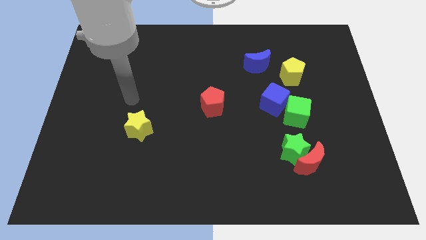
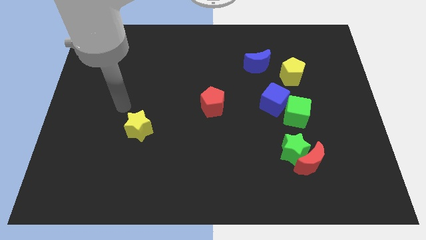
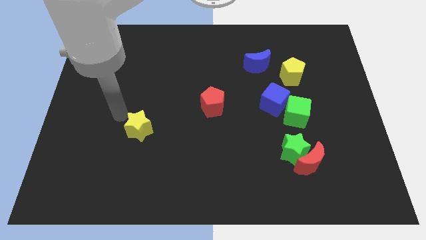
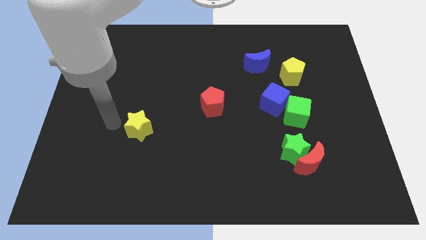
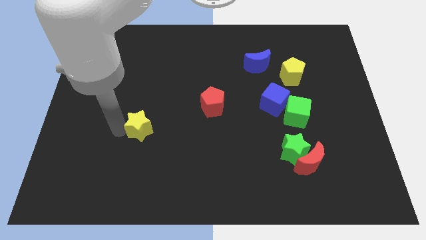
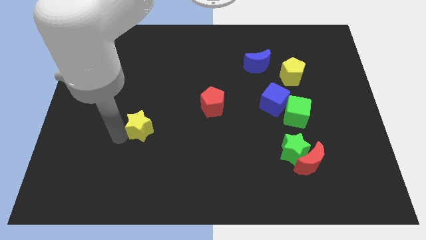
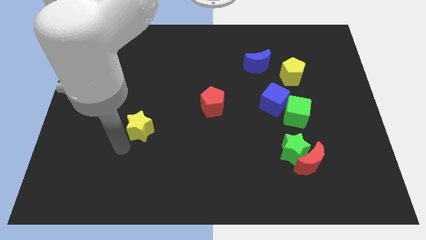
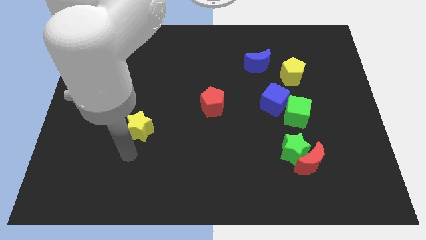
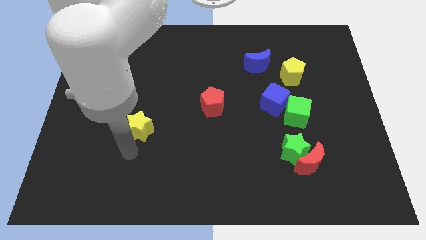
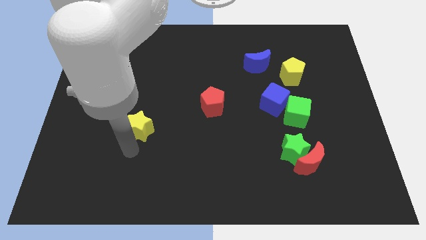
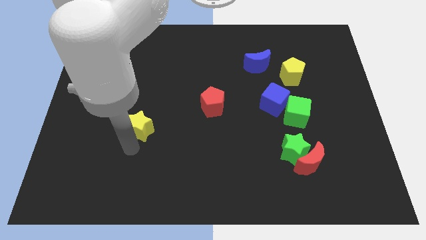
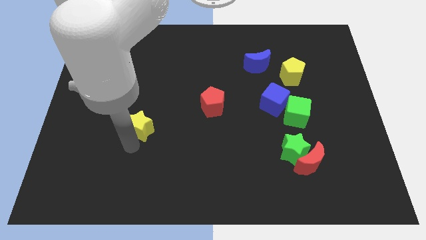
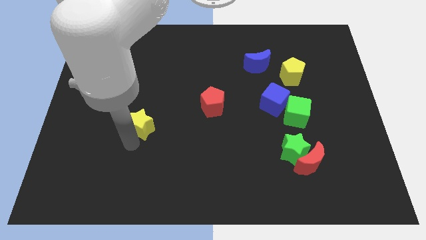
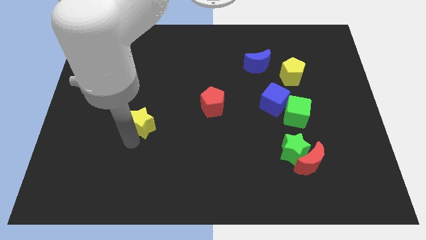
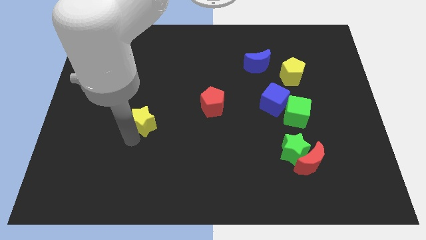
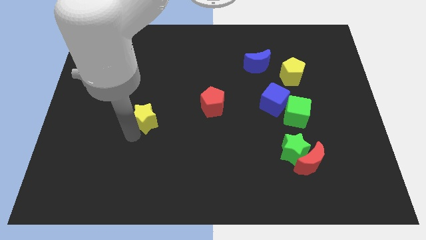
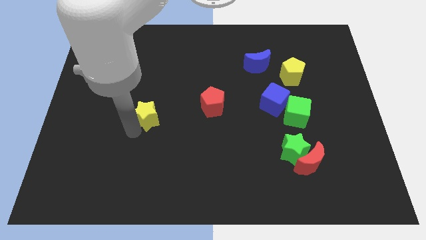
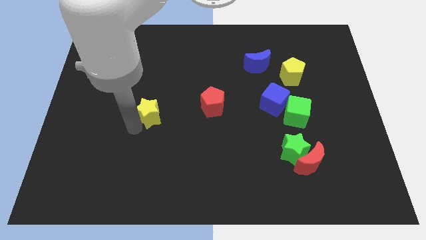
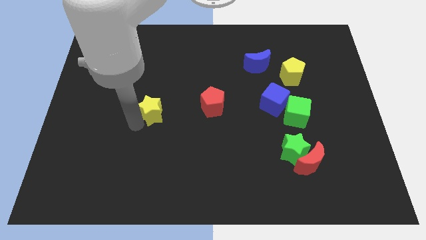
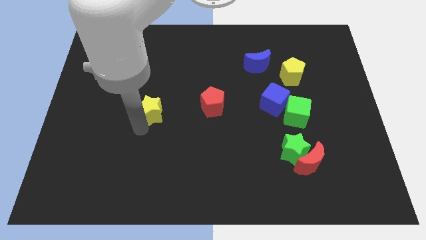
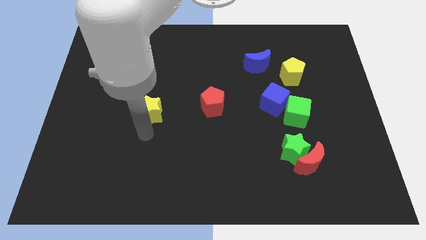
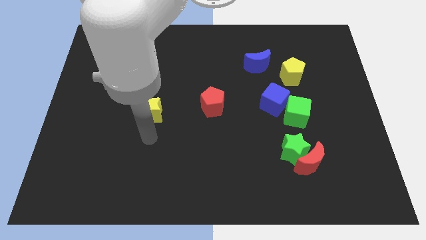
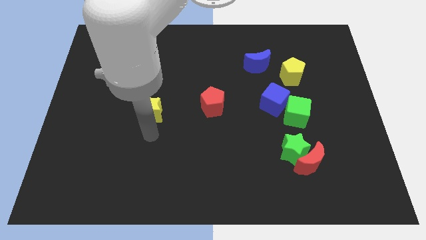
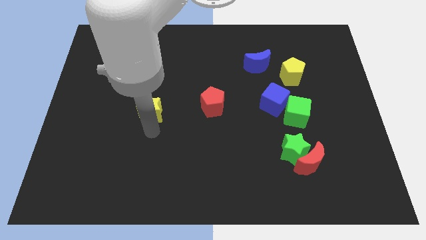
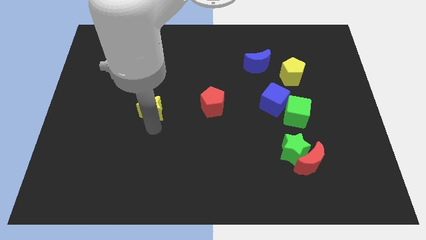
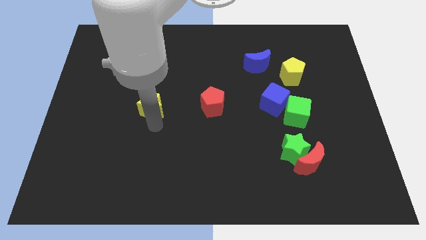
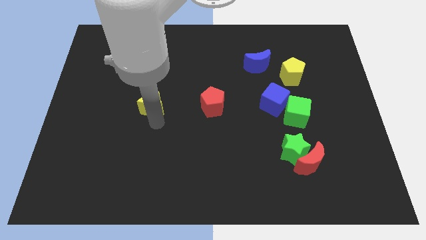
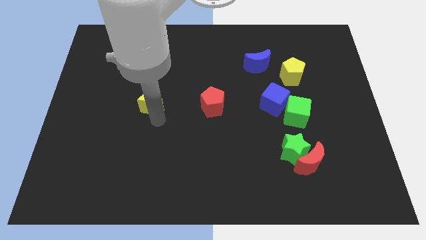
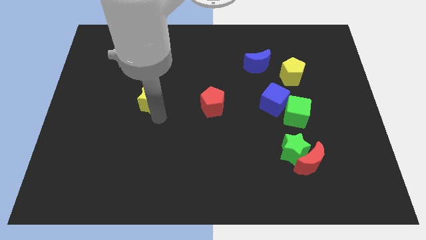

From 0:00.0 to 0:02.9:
move the yellow star a bit upwards

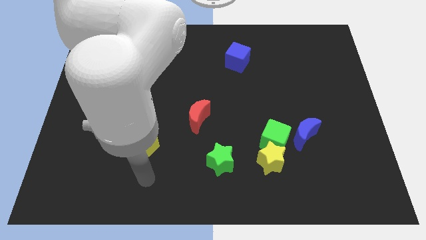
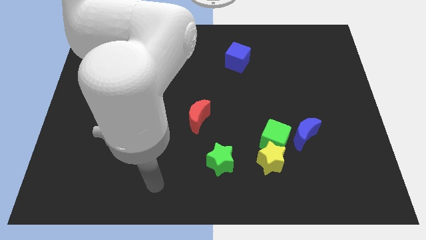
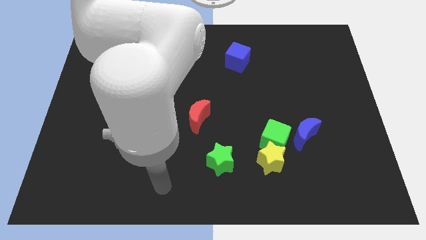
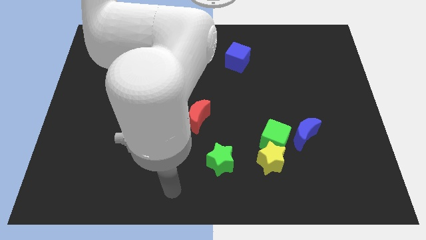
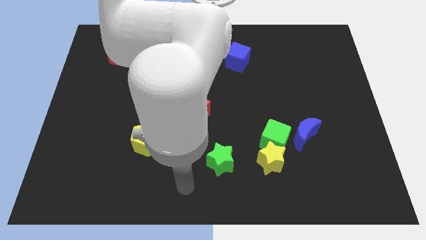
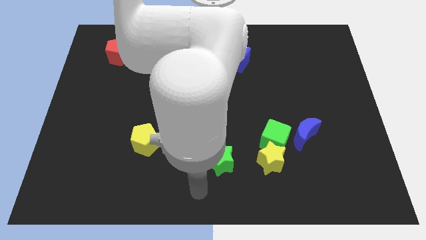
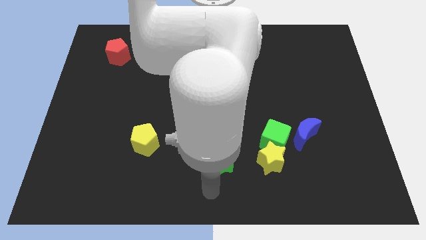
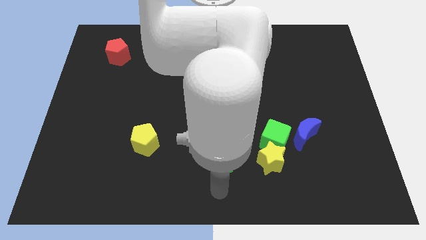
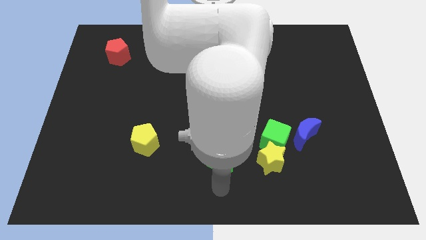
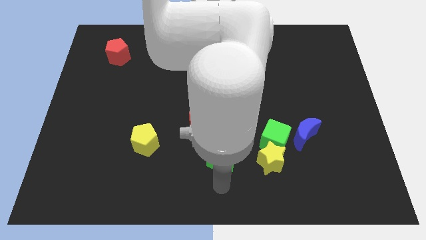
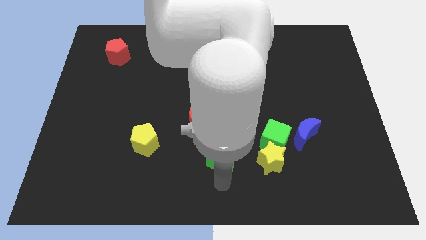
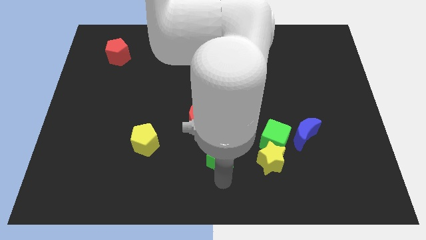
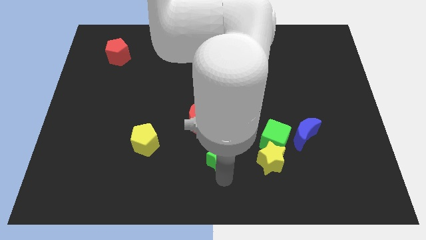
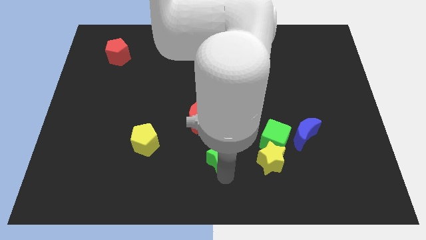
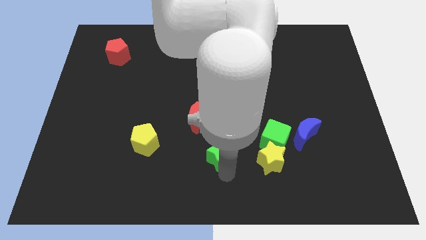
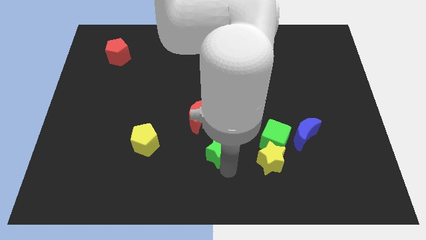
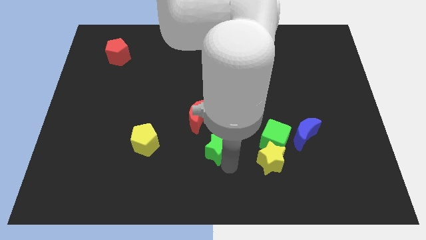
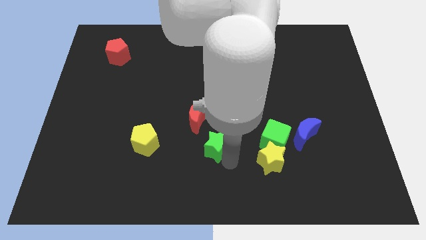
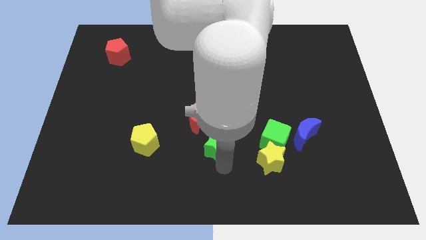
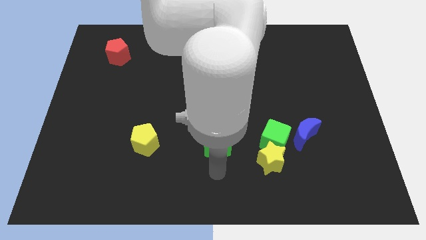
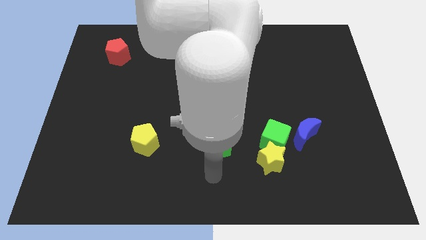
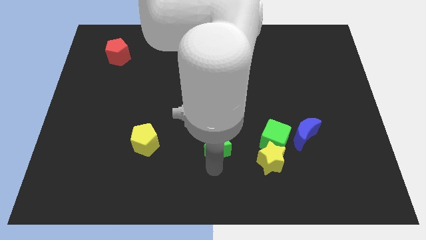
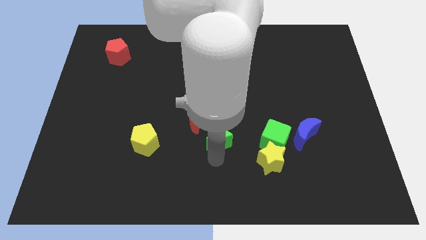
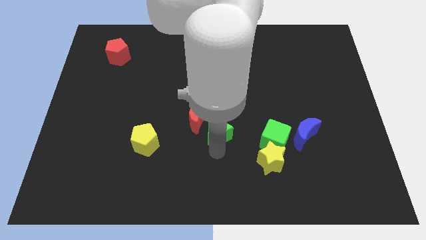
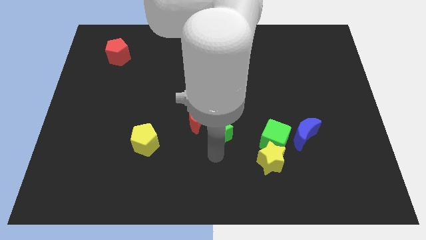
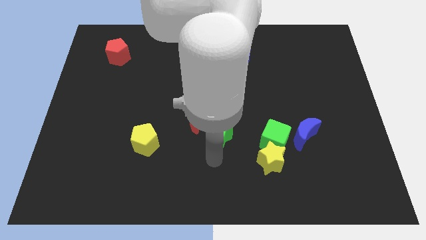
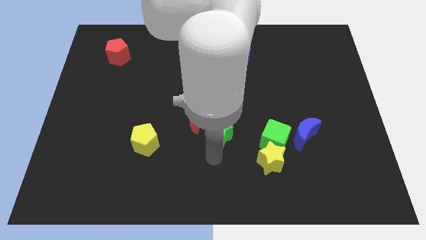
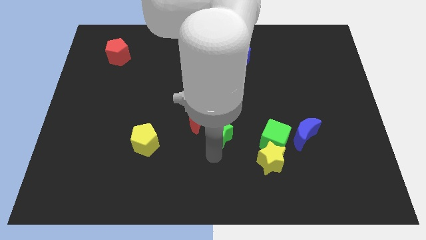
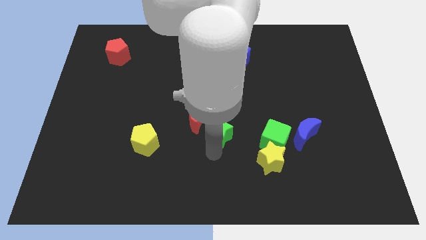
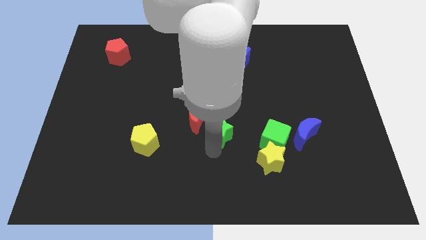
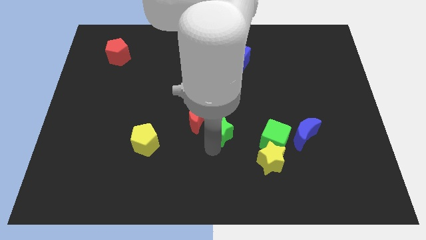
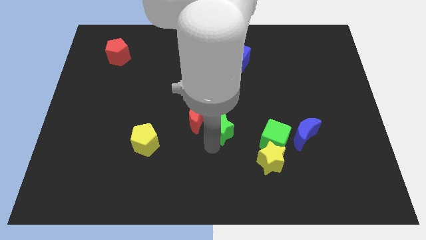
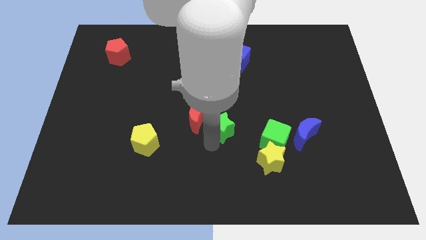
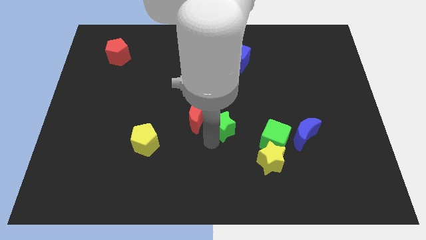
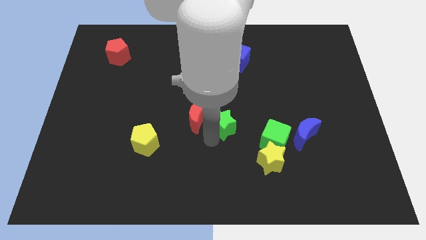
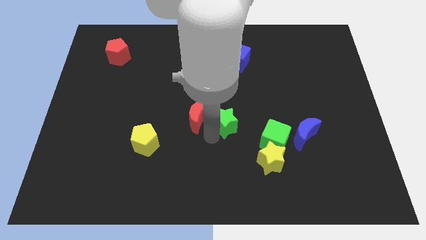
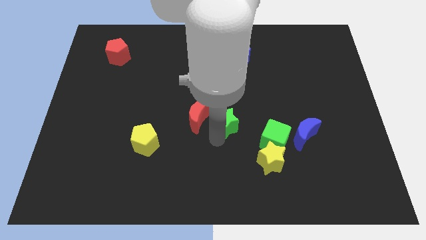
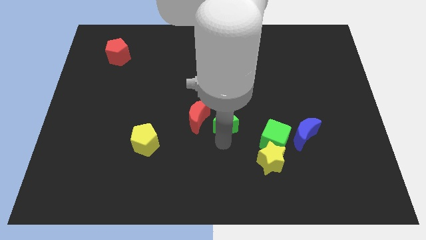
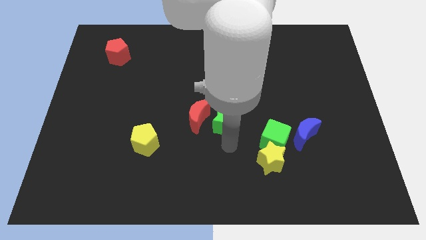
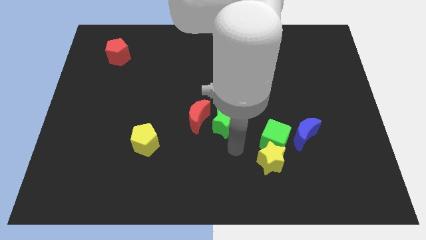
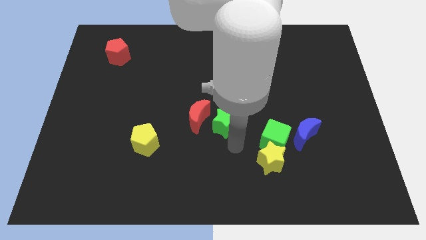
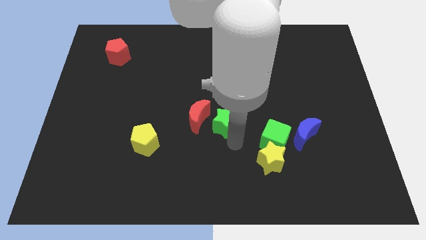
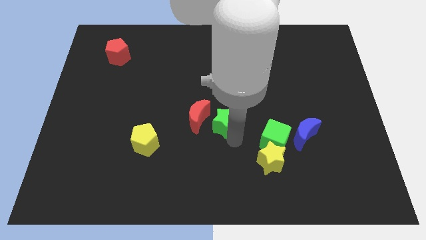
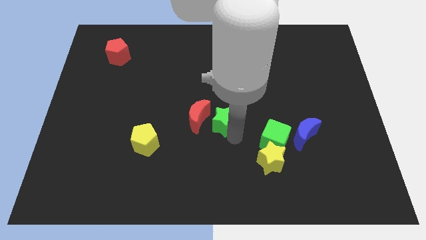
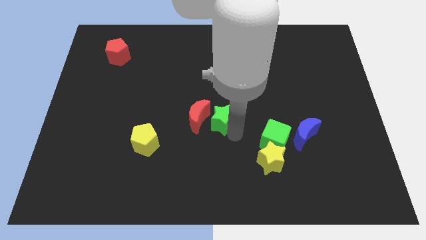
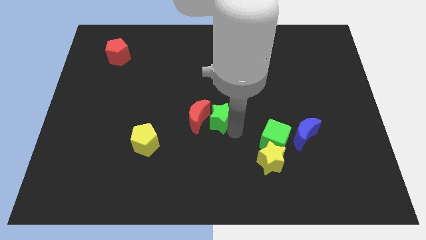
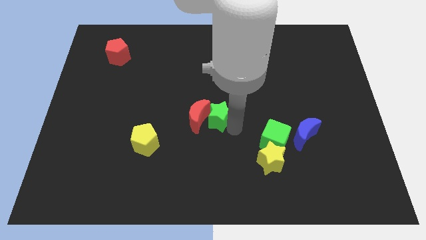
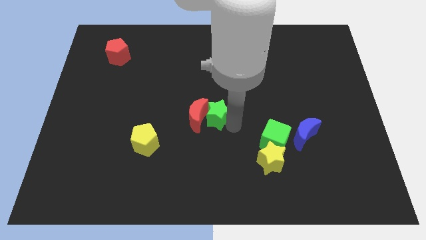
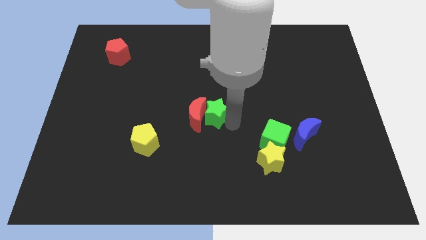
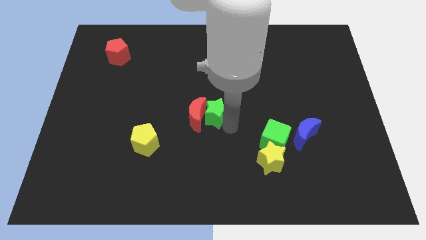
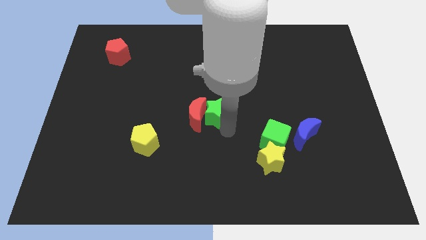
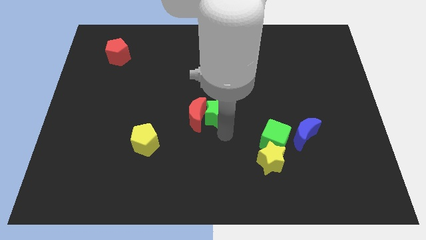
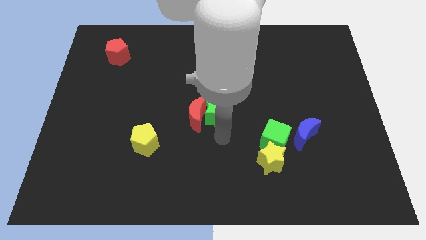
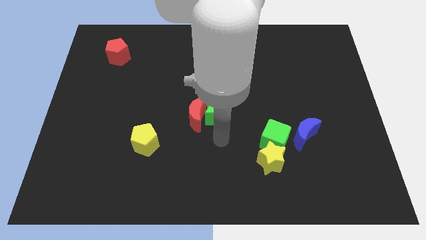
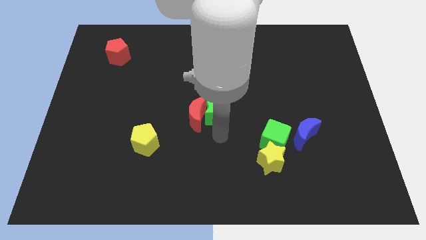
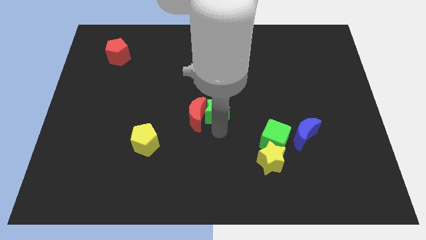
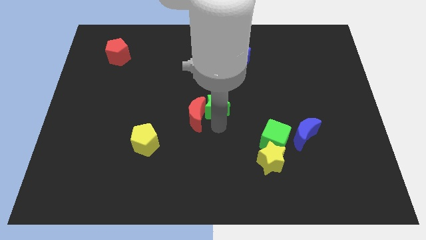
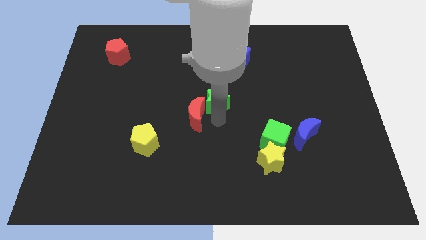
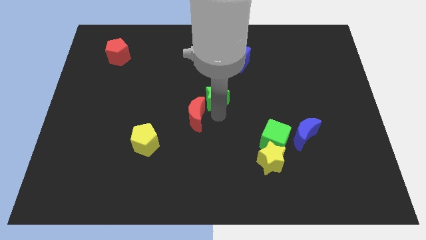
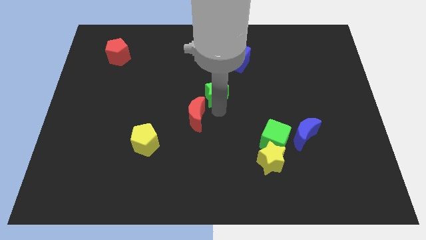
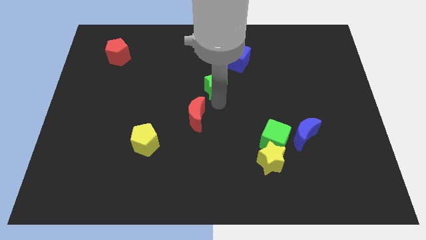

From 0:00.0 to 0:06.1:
push the green star up
